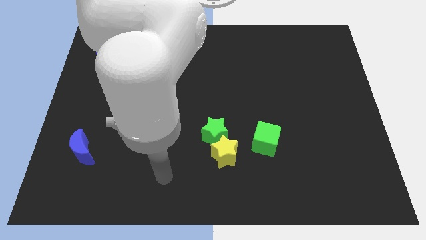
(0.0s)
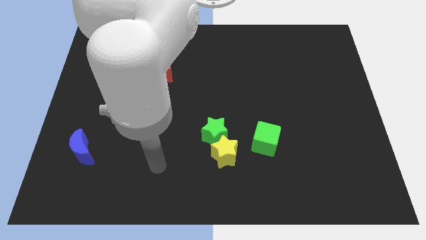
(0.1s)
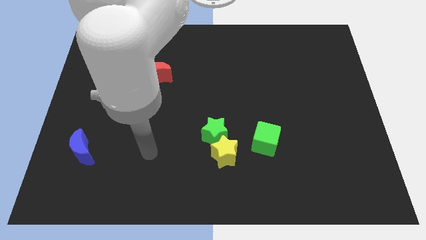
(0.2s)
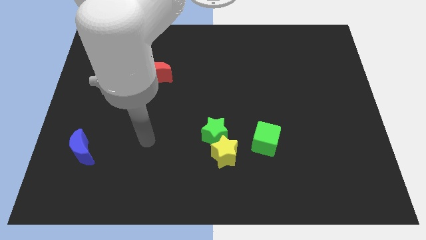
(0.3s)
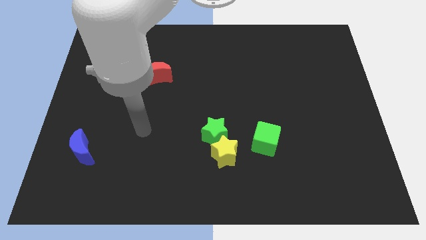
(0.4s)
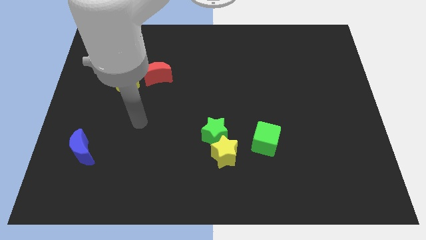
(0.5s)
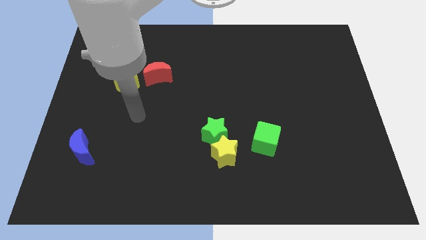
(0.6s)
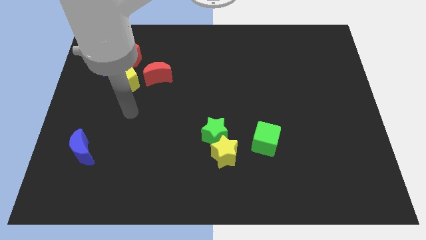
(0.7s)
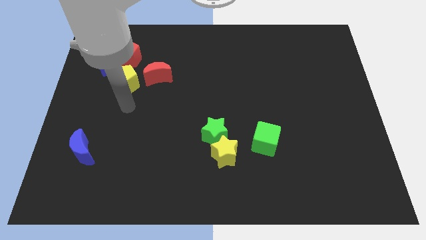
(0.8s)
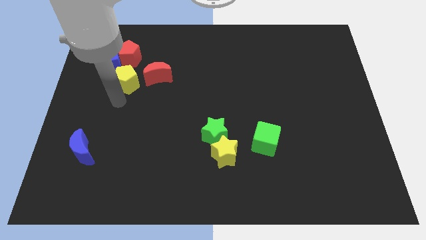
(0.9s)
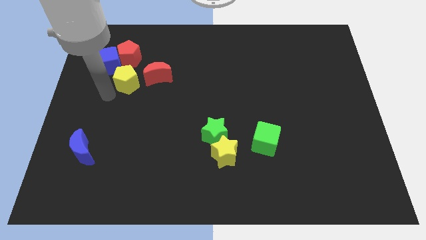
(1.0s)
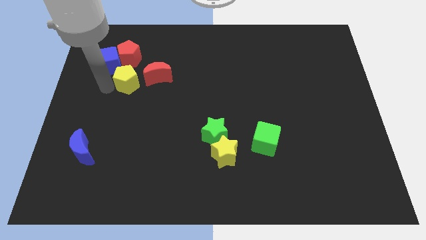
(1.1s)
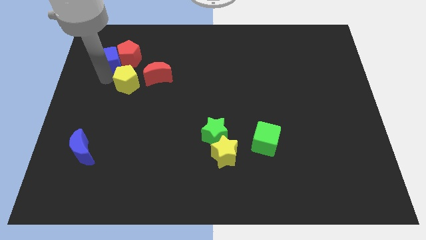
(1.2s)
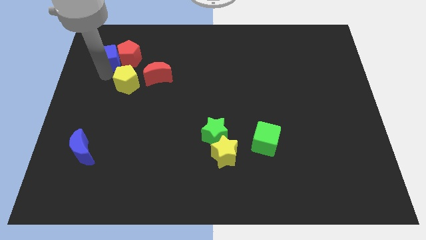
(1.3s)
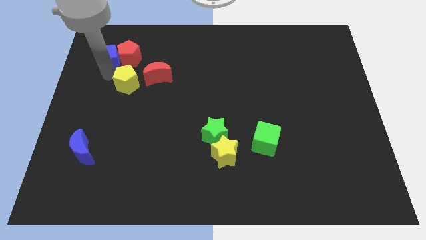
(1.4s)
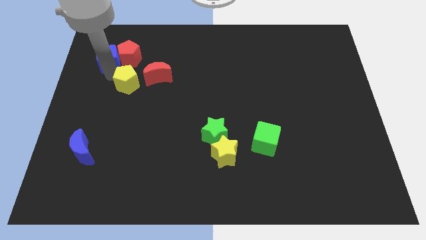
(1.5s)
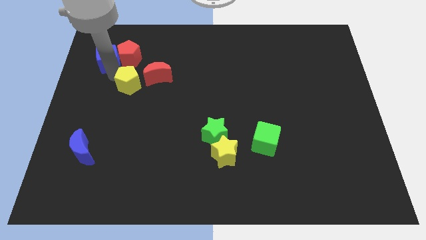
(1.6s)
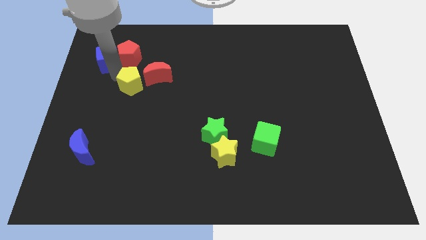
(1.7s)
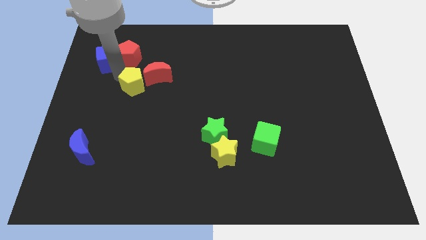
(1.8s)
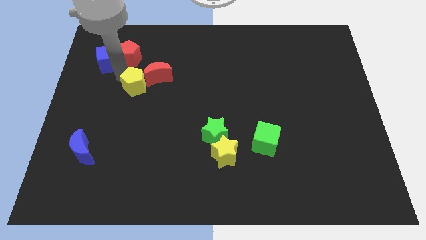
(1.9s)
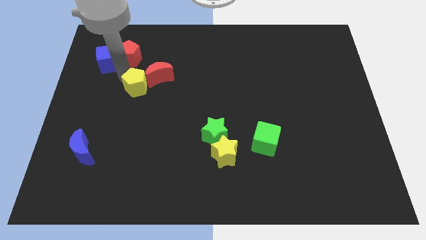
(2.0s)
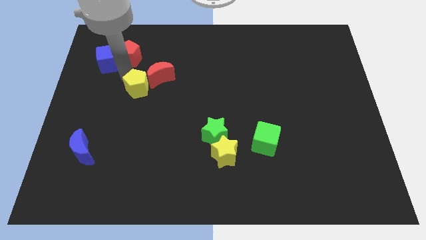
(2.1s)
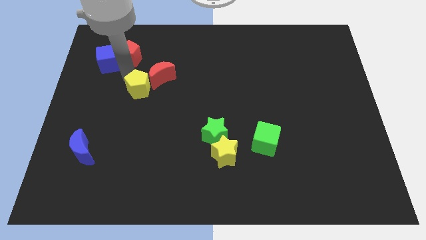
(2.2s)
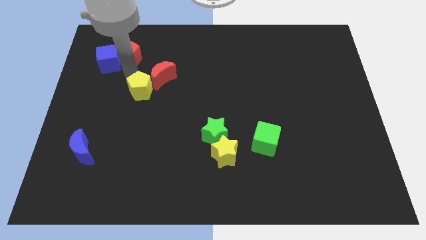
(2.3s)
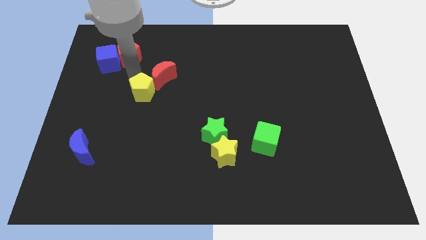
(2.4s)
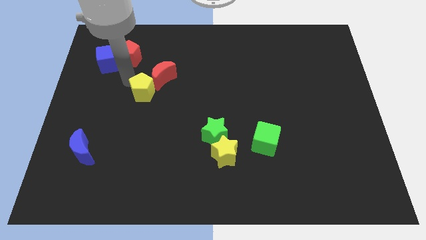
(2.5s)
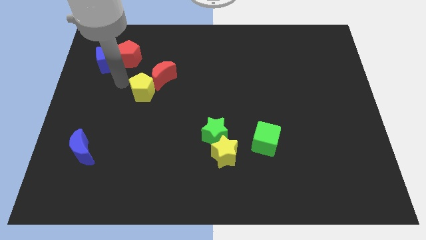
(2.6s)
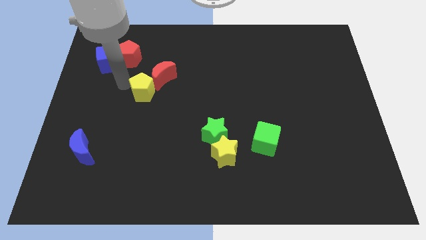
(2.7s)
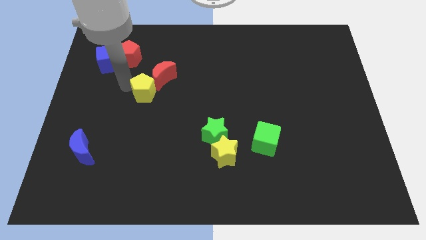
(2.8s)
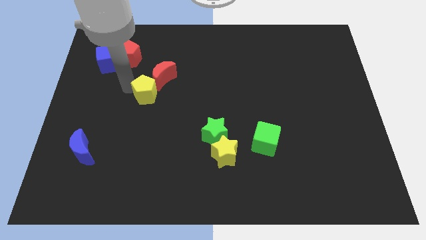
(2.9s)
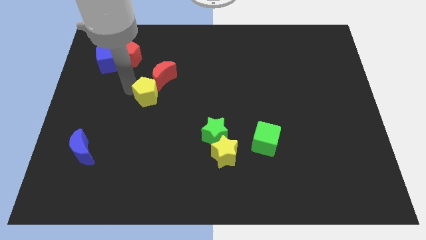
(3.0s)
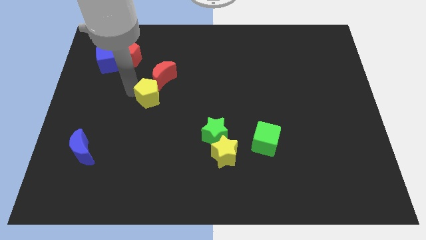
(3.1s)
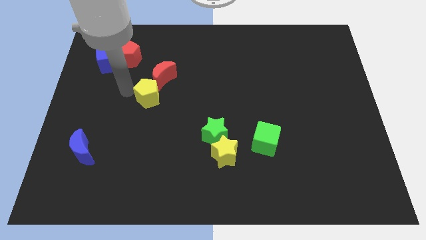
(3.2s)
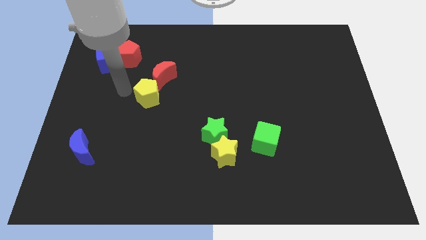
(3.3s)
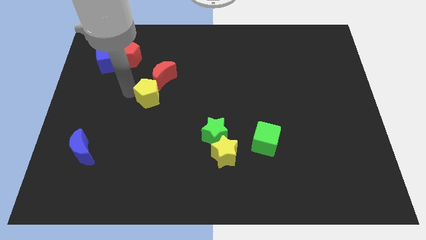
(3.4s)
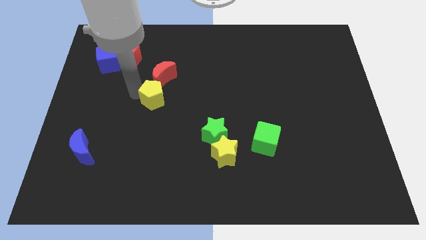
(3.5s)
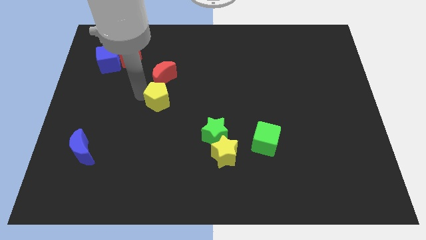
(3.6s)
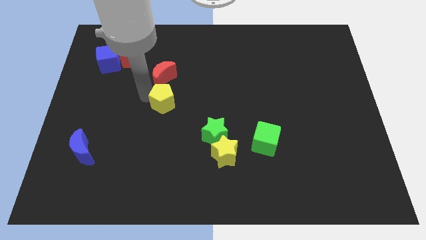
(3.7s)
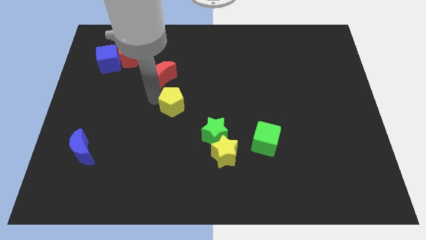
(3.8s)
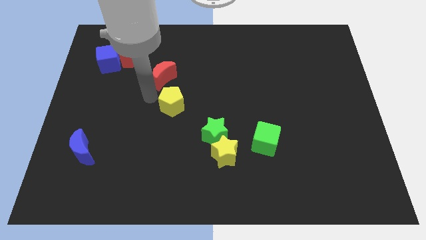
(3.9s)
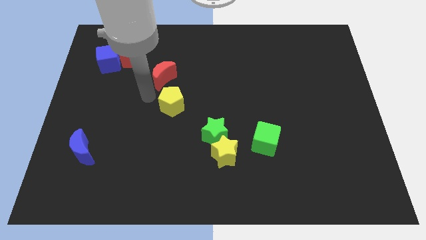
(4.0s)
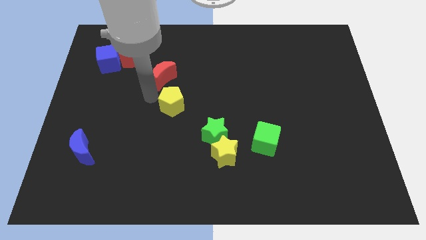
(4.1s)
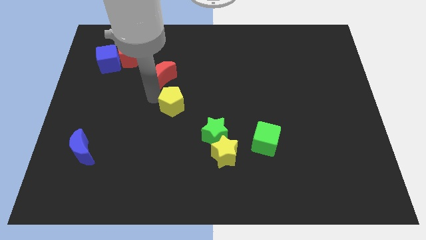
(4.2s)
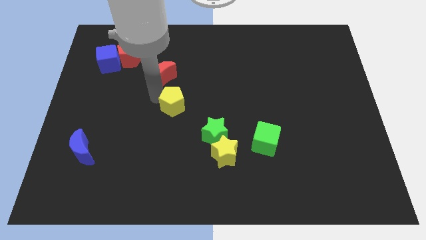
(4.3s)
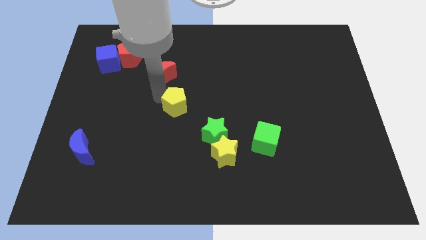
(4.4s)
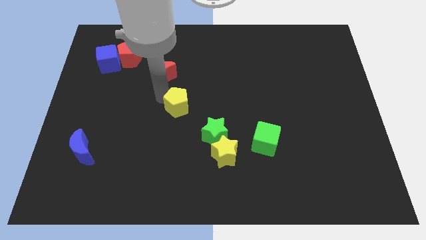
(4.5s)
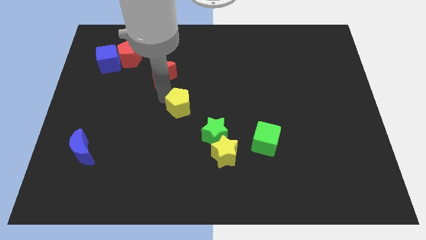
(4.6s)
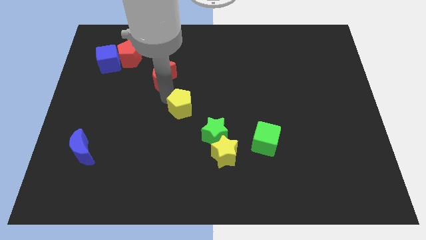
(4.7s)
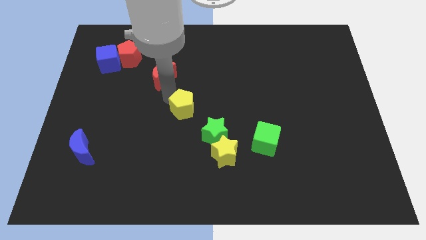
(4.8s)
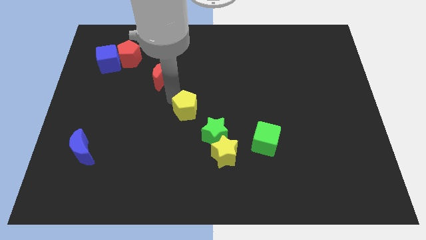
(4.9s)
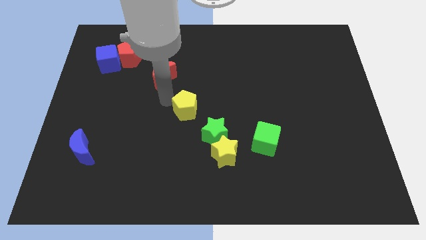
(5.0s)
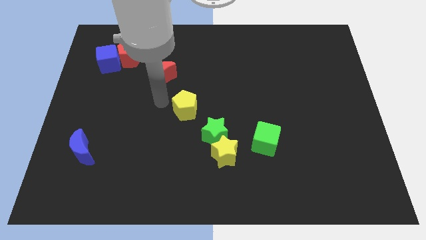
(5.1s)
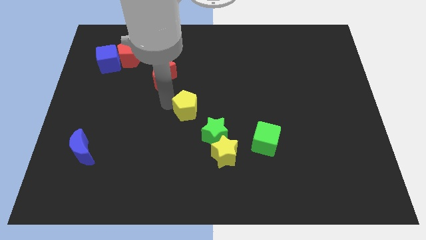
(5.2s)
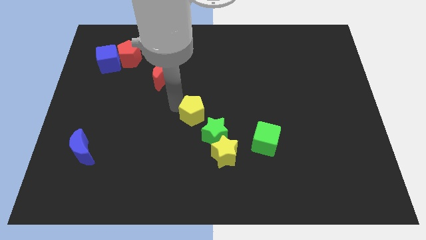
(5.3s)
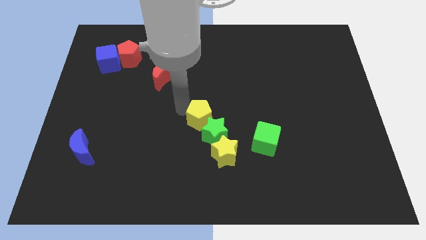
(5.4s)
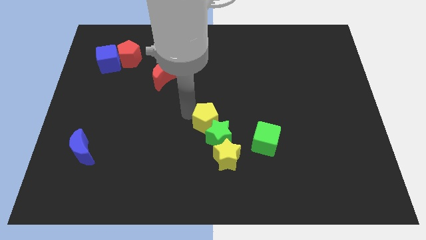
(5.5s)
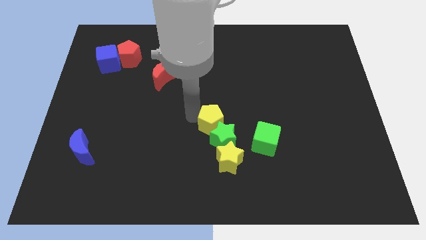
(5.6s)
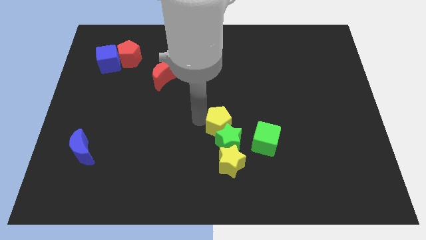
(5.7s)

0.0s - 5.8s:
move the yellow pentagon diagonally up and to the left of the green cube
